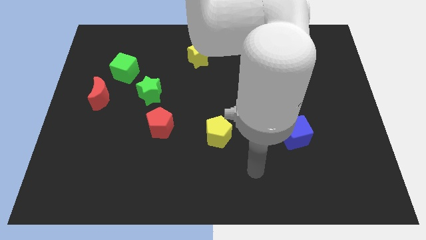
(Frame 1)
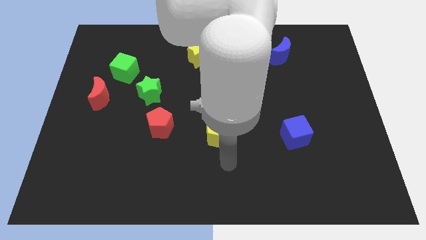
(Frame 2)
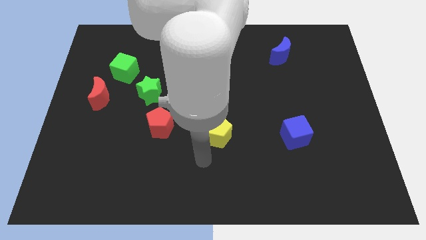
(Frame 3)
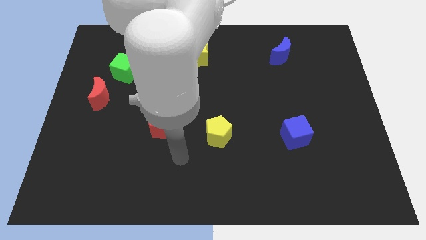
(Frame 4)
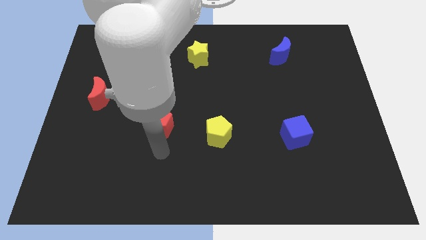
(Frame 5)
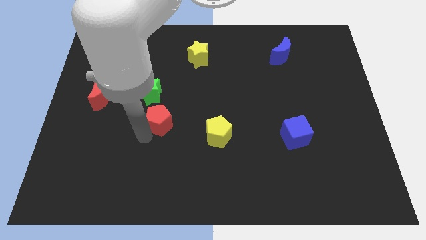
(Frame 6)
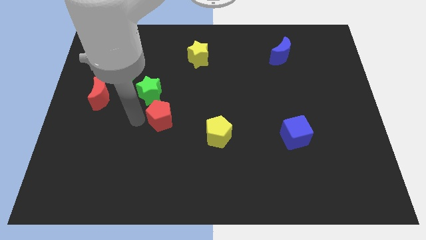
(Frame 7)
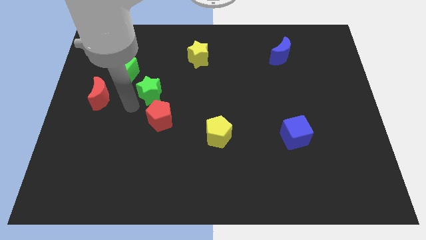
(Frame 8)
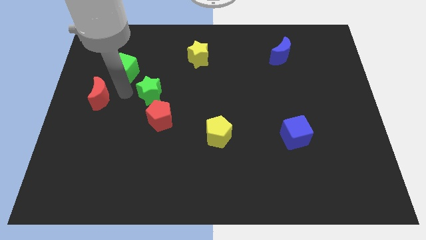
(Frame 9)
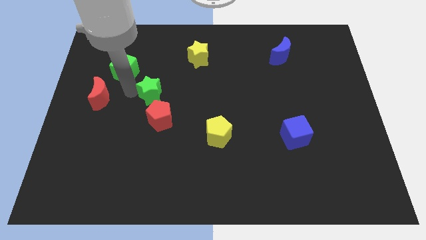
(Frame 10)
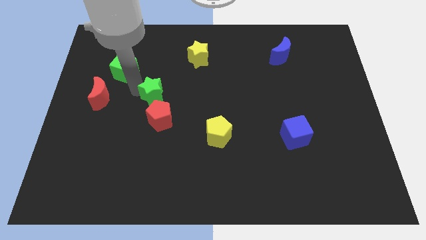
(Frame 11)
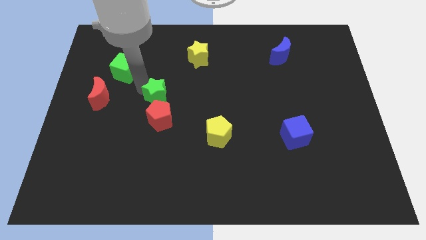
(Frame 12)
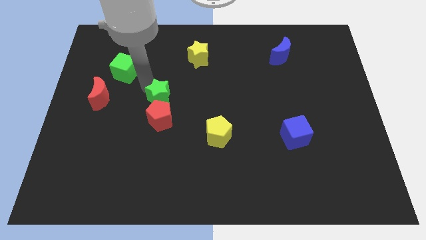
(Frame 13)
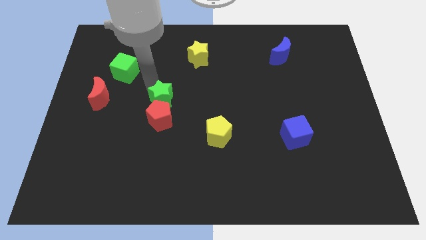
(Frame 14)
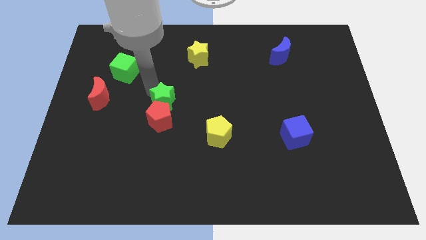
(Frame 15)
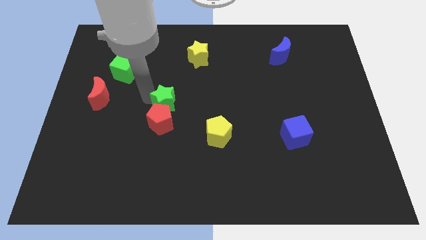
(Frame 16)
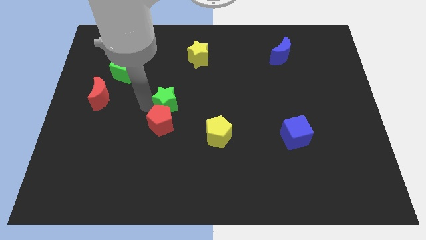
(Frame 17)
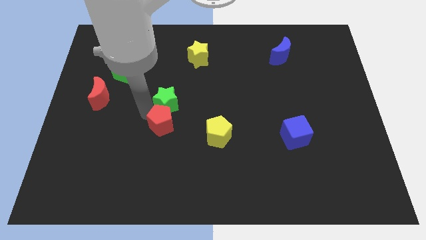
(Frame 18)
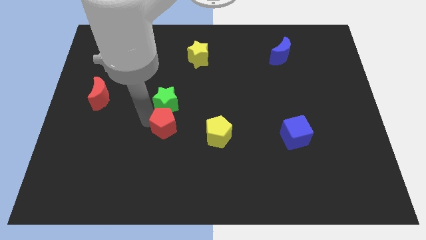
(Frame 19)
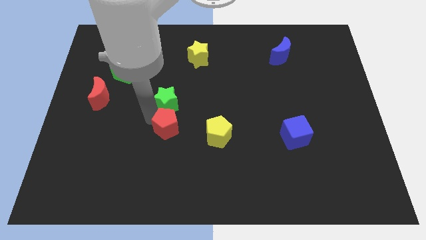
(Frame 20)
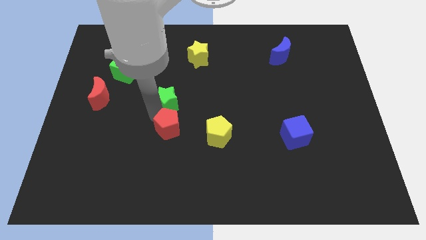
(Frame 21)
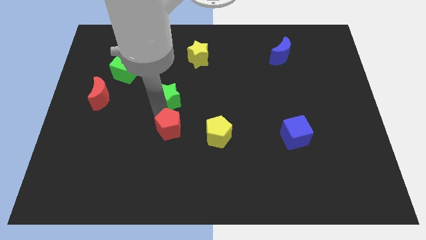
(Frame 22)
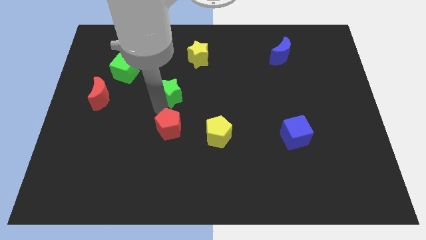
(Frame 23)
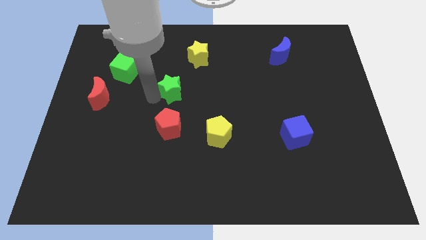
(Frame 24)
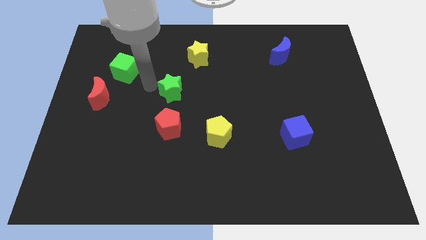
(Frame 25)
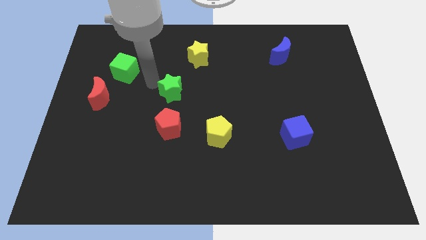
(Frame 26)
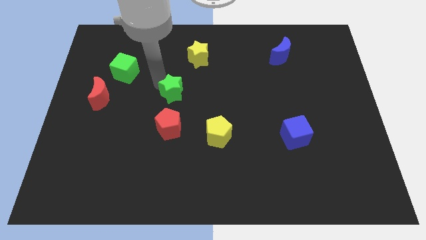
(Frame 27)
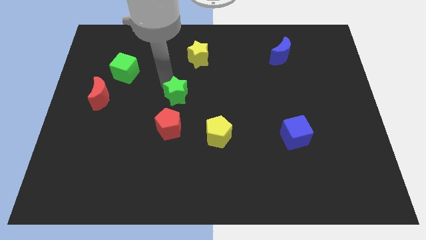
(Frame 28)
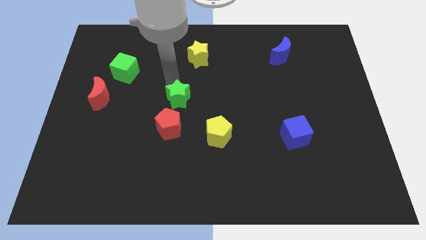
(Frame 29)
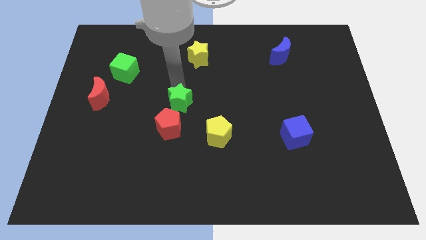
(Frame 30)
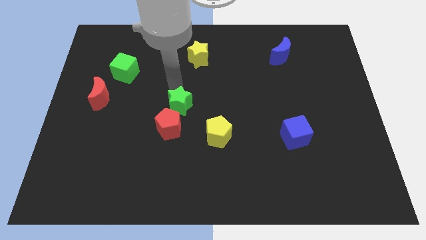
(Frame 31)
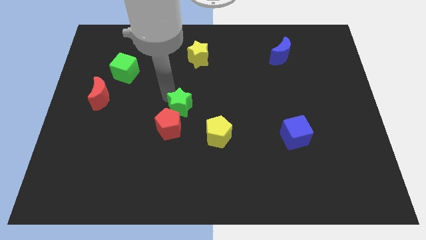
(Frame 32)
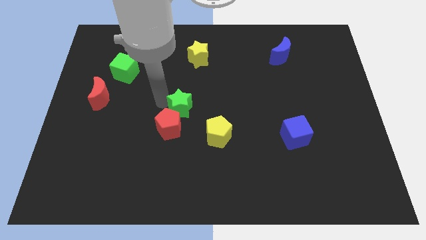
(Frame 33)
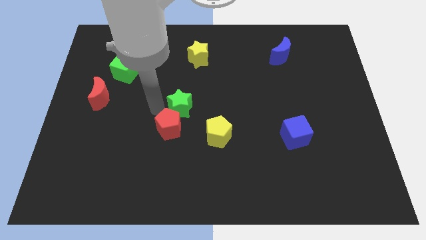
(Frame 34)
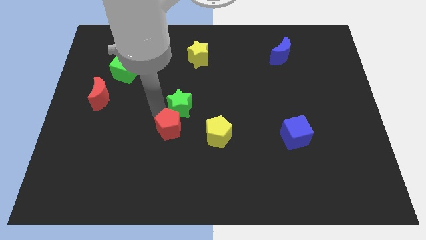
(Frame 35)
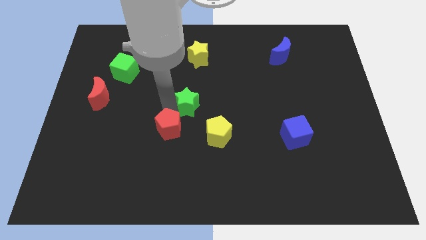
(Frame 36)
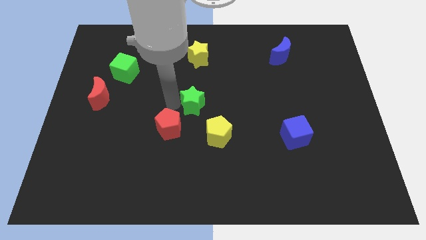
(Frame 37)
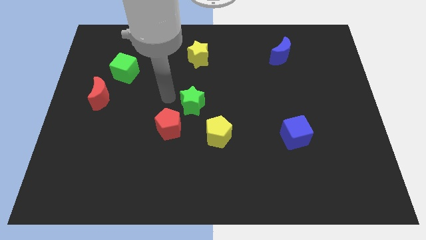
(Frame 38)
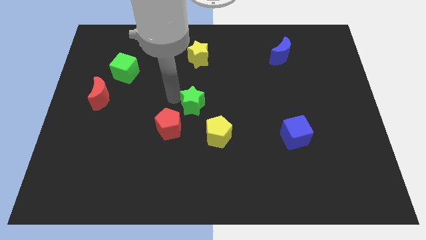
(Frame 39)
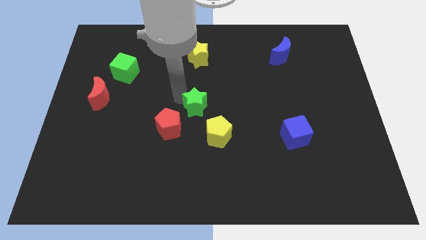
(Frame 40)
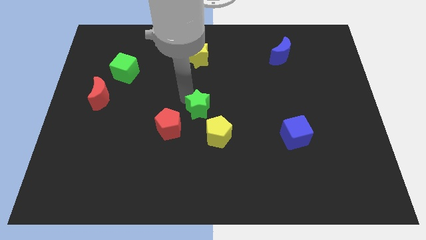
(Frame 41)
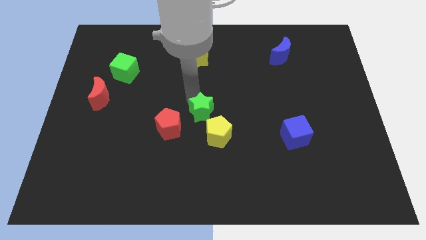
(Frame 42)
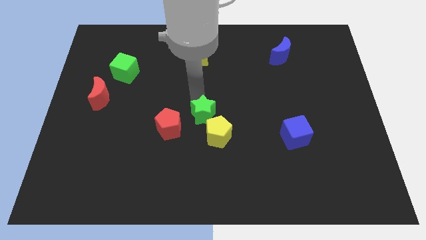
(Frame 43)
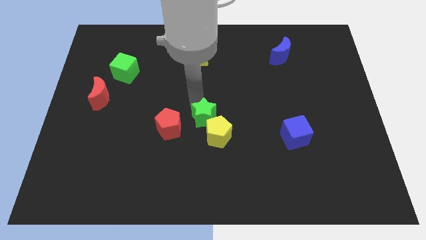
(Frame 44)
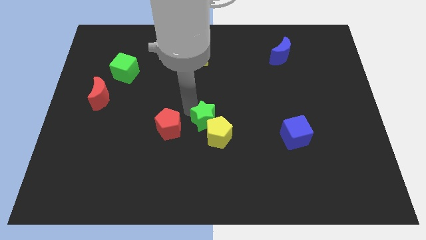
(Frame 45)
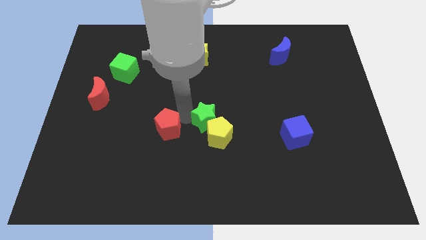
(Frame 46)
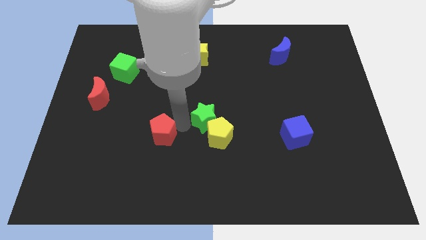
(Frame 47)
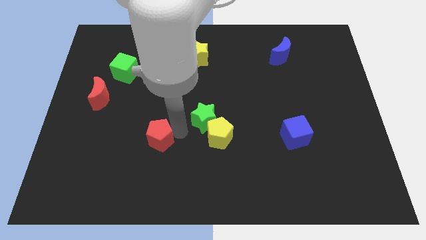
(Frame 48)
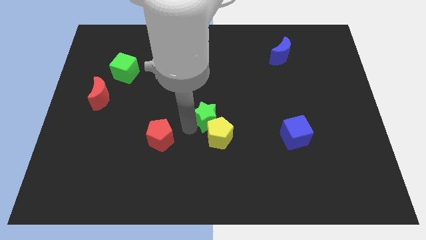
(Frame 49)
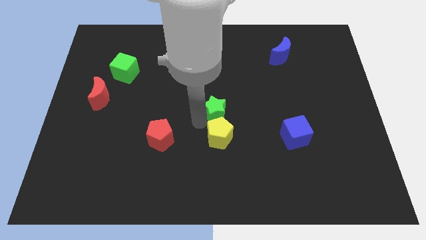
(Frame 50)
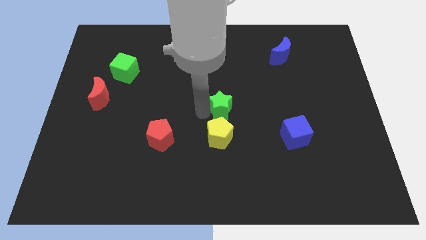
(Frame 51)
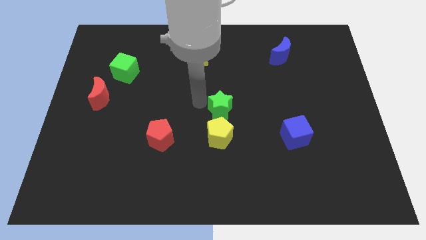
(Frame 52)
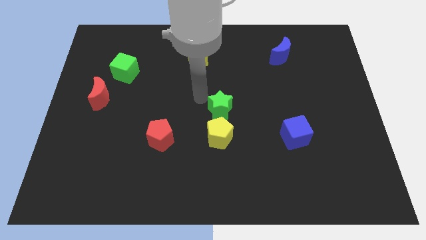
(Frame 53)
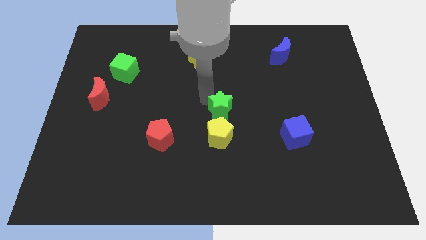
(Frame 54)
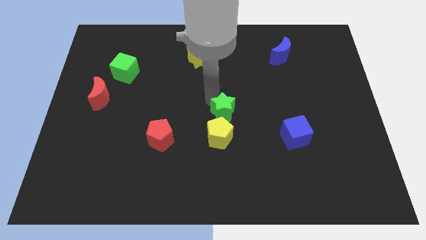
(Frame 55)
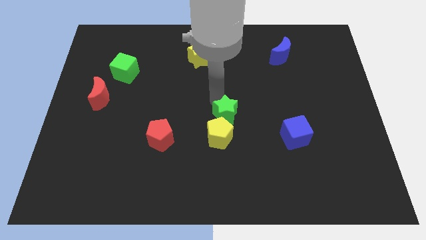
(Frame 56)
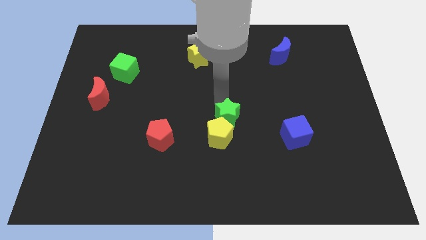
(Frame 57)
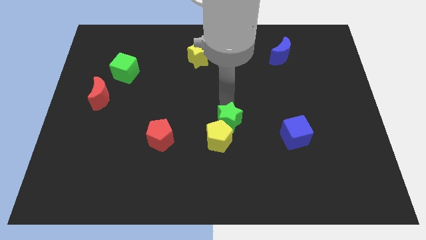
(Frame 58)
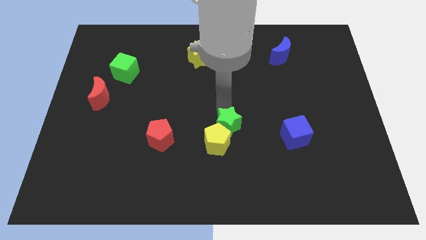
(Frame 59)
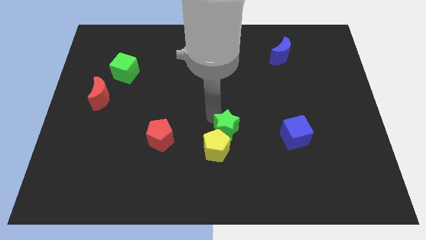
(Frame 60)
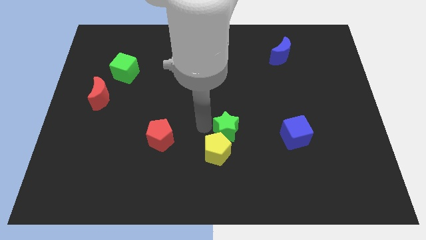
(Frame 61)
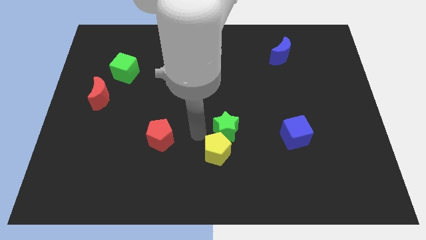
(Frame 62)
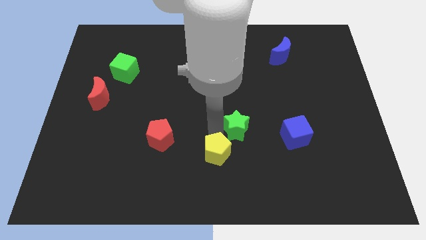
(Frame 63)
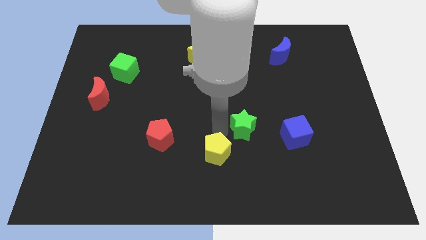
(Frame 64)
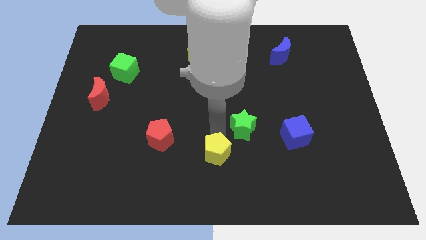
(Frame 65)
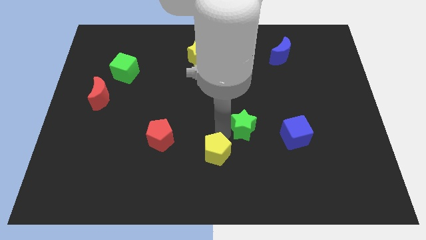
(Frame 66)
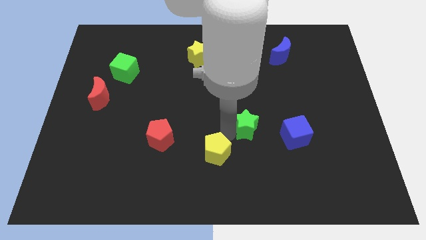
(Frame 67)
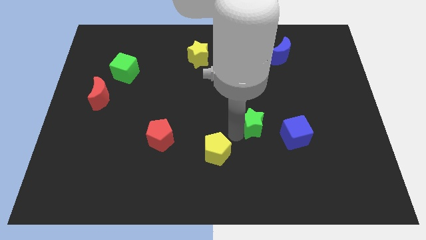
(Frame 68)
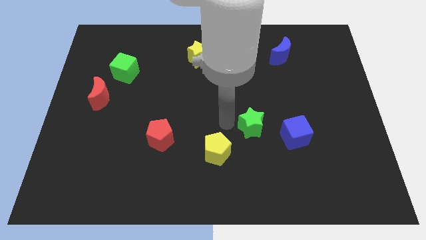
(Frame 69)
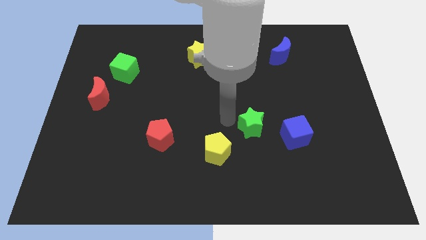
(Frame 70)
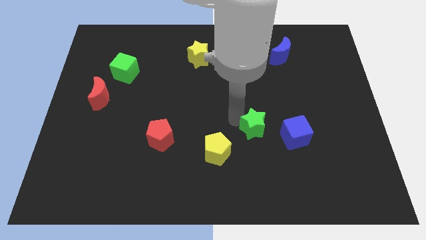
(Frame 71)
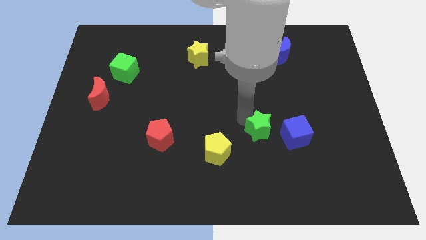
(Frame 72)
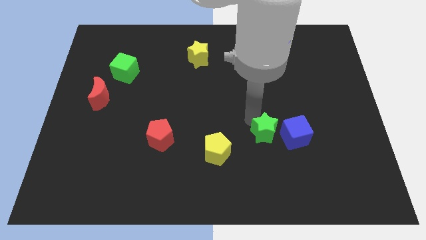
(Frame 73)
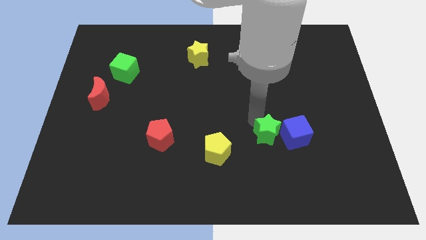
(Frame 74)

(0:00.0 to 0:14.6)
put the green star close to the blue cube
